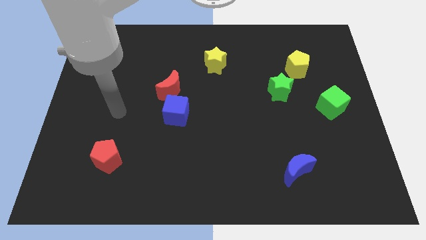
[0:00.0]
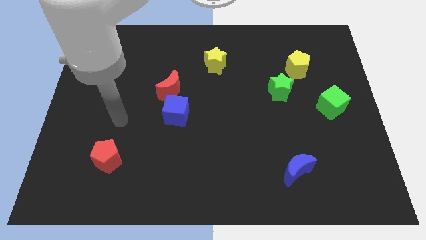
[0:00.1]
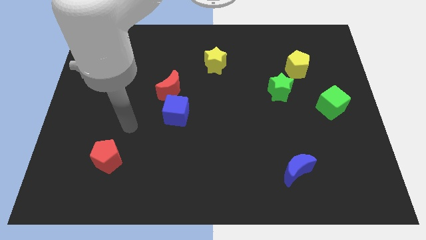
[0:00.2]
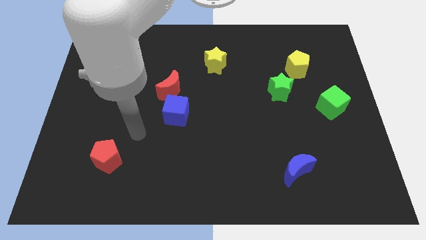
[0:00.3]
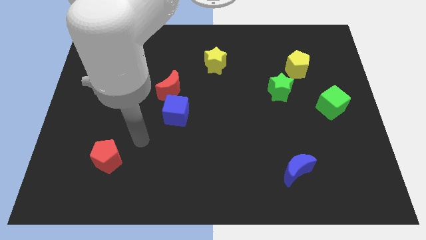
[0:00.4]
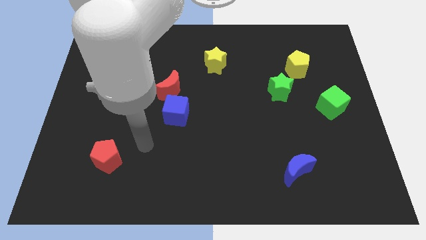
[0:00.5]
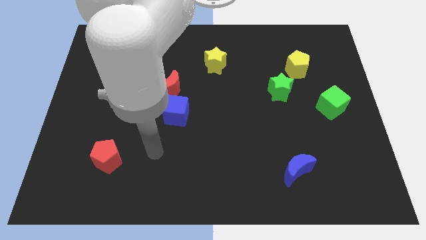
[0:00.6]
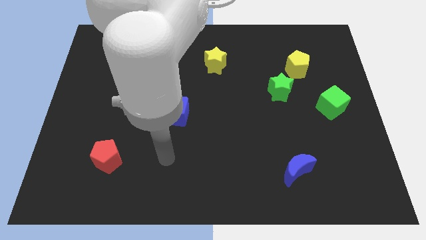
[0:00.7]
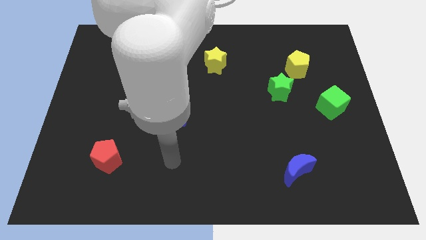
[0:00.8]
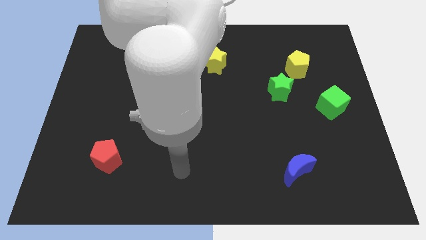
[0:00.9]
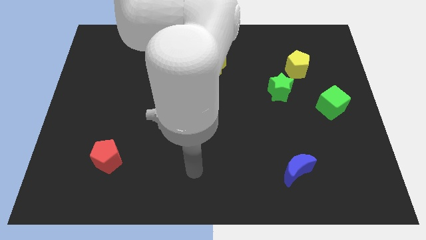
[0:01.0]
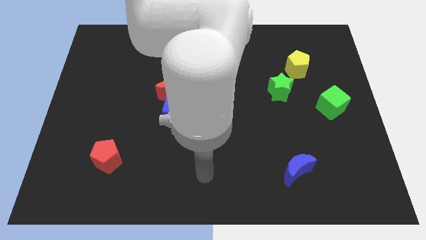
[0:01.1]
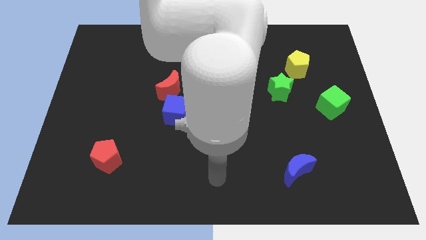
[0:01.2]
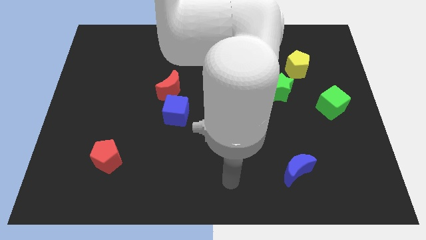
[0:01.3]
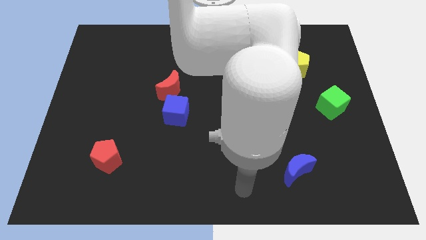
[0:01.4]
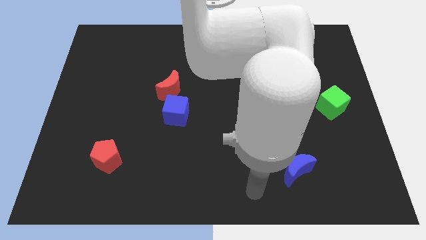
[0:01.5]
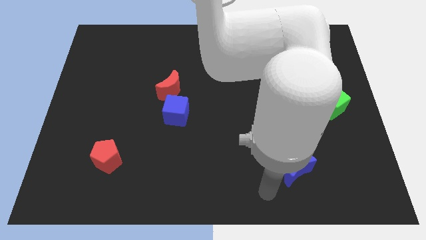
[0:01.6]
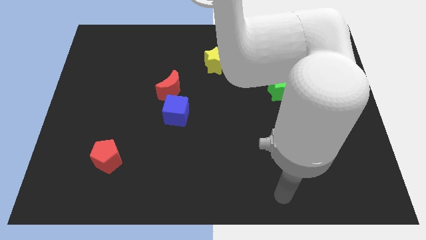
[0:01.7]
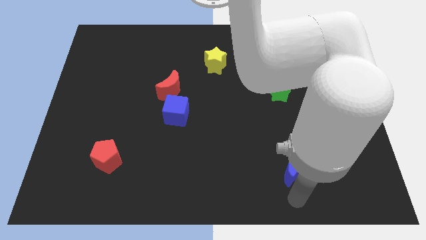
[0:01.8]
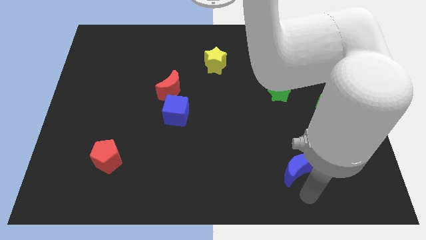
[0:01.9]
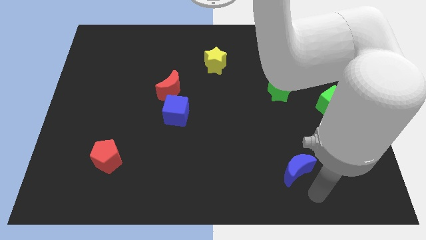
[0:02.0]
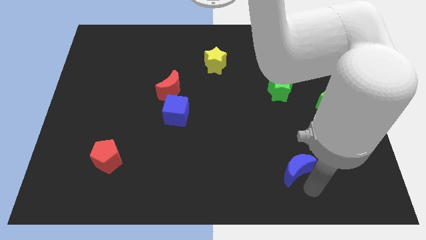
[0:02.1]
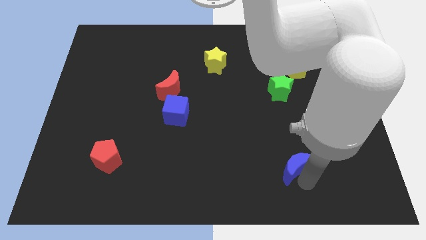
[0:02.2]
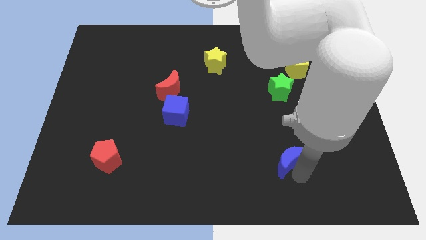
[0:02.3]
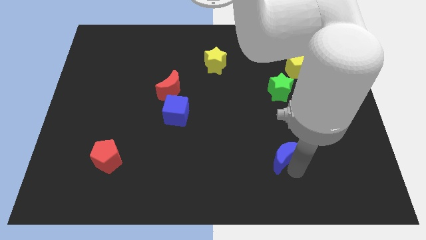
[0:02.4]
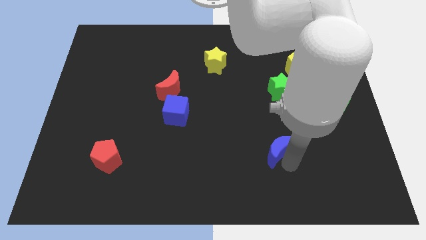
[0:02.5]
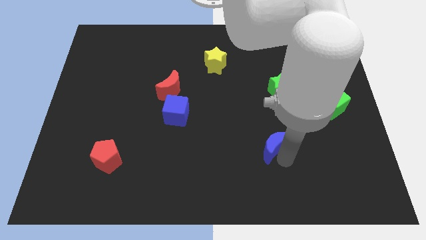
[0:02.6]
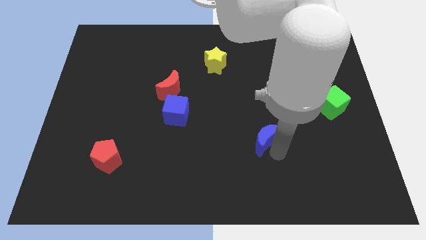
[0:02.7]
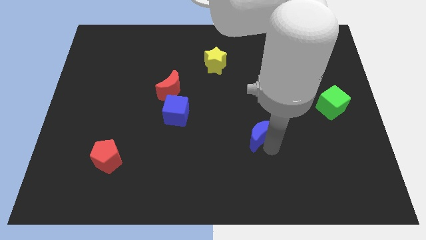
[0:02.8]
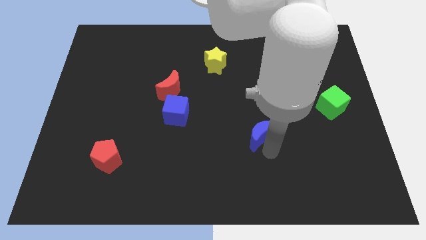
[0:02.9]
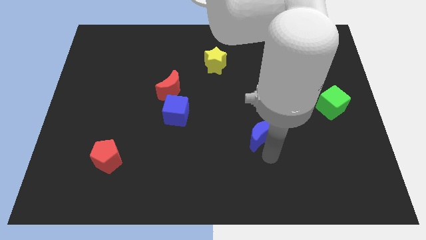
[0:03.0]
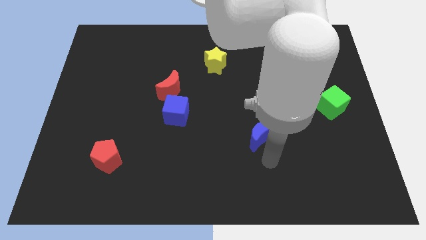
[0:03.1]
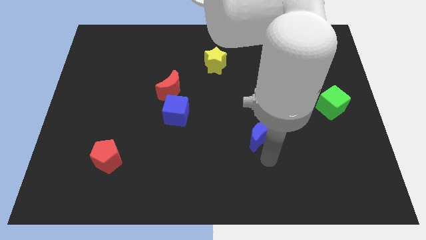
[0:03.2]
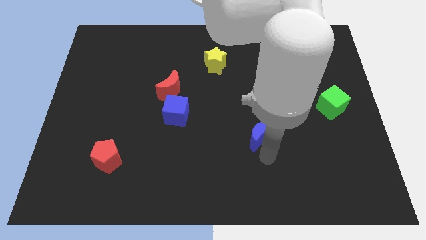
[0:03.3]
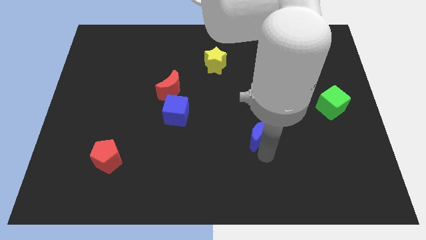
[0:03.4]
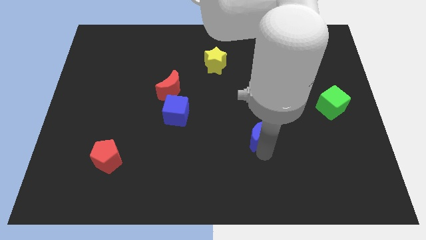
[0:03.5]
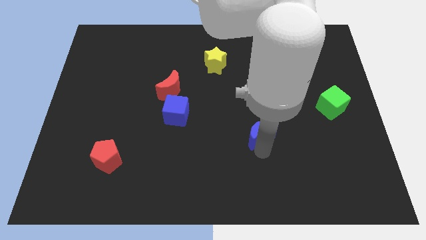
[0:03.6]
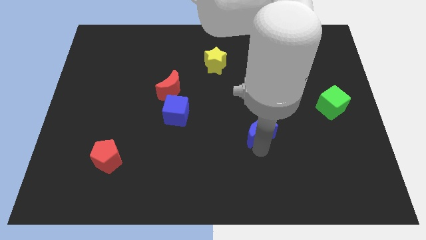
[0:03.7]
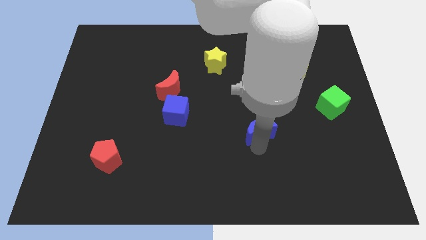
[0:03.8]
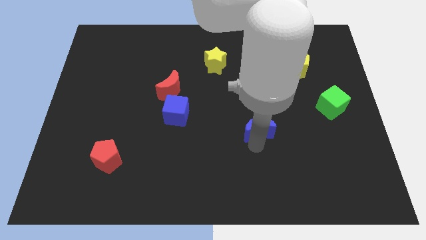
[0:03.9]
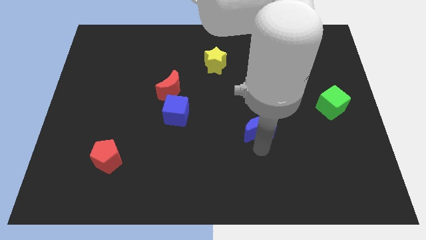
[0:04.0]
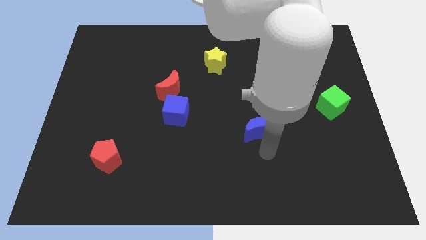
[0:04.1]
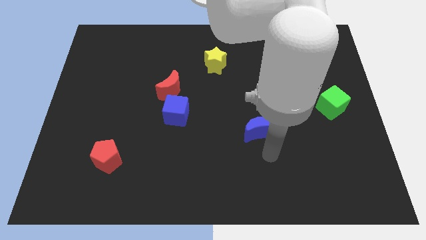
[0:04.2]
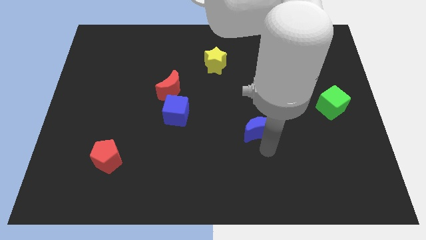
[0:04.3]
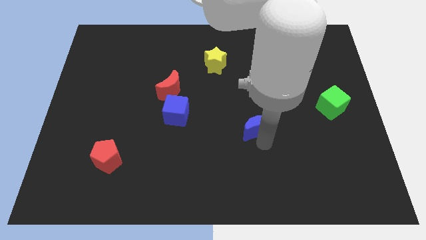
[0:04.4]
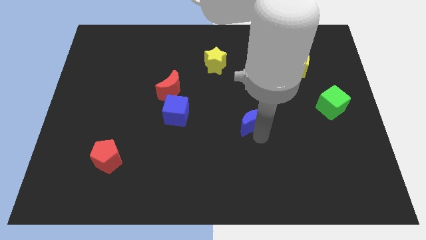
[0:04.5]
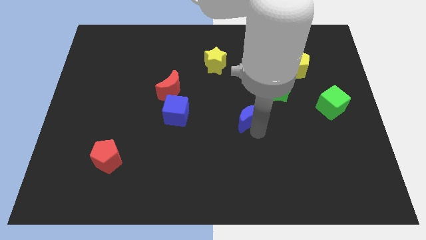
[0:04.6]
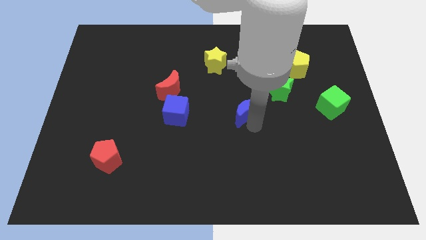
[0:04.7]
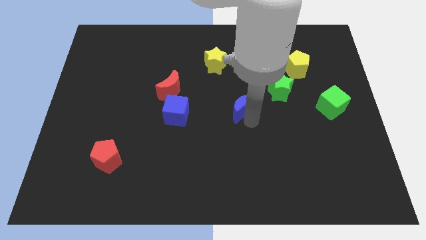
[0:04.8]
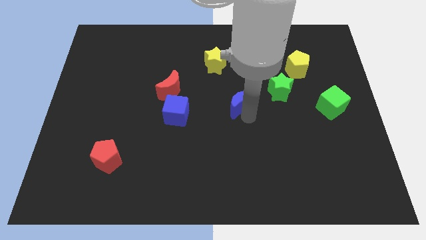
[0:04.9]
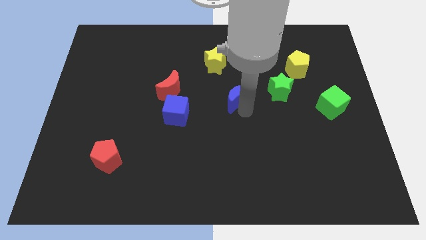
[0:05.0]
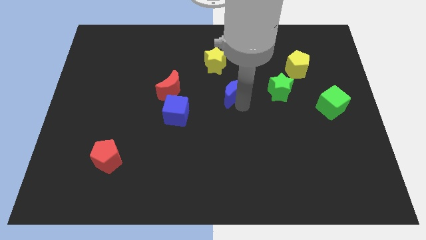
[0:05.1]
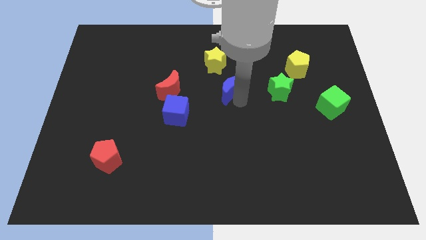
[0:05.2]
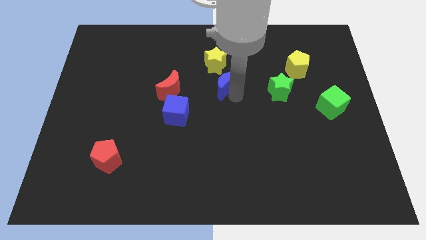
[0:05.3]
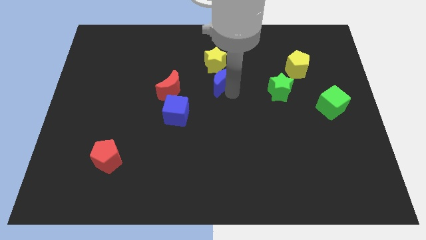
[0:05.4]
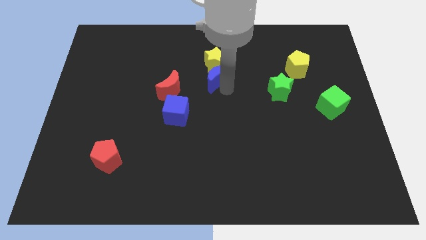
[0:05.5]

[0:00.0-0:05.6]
slide the blue moon towards the yellow star
